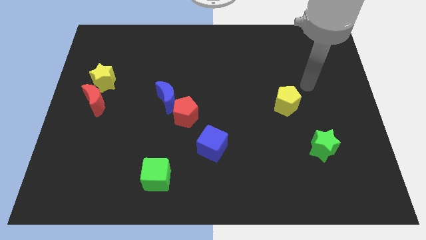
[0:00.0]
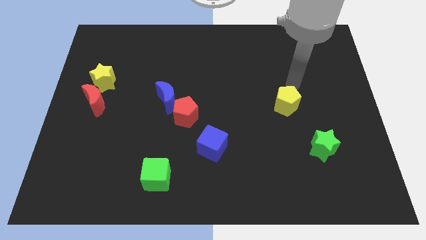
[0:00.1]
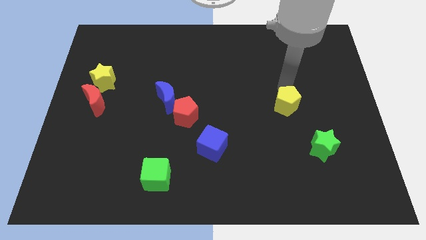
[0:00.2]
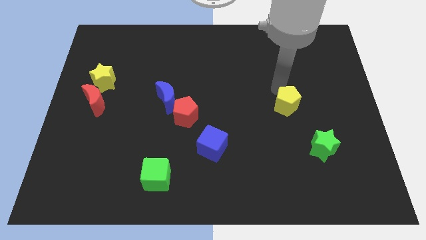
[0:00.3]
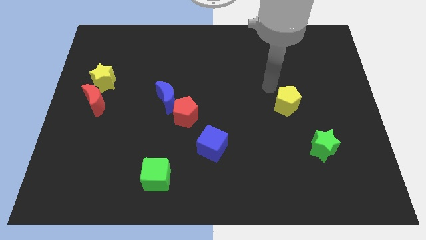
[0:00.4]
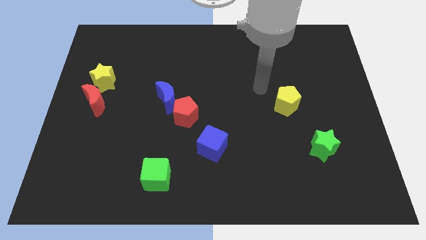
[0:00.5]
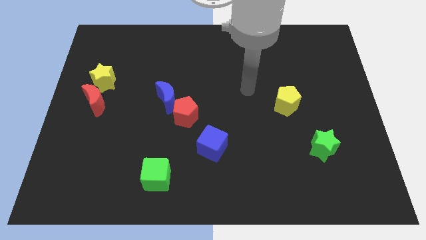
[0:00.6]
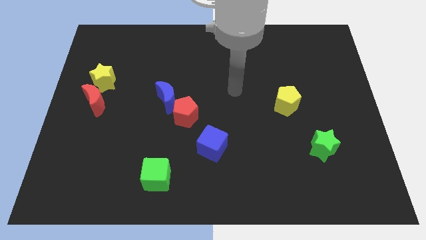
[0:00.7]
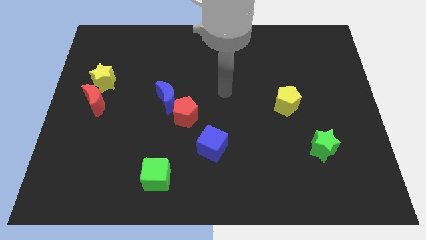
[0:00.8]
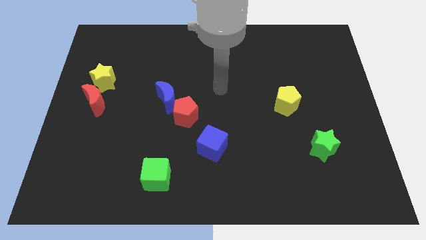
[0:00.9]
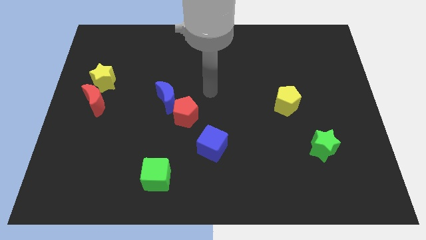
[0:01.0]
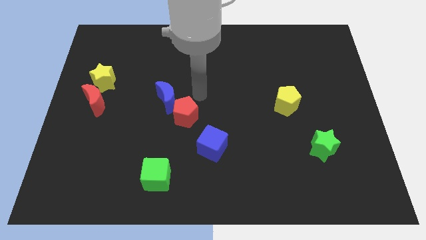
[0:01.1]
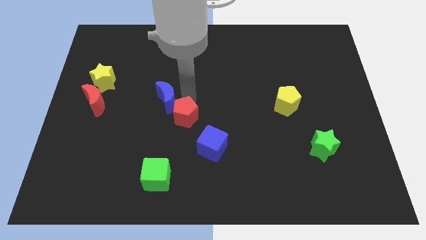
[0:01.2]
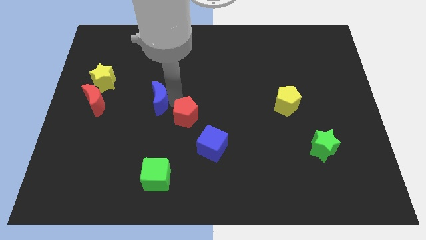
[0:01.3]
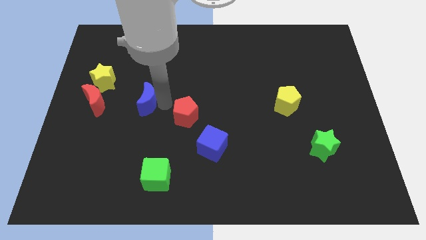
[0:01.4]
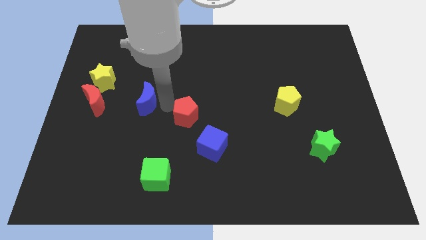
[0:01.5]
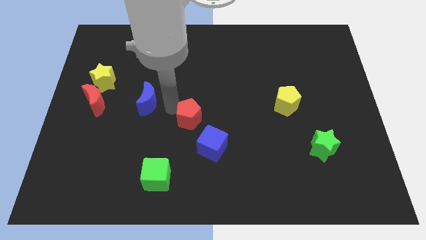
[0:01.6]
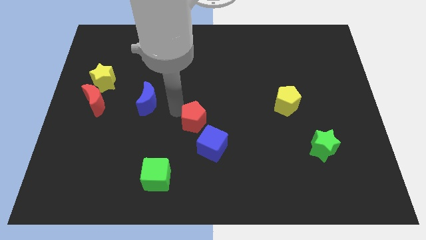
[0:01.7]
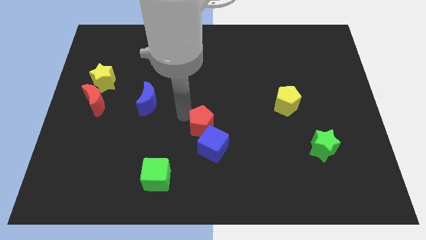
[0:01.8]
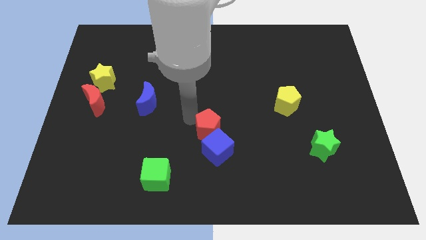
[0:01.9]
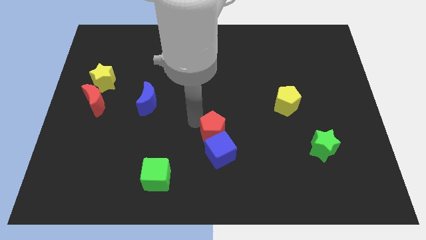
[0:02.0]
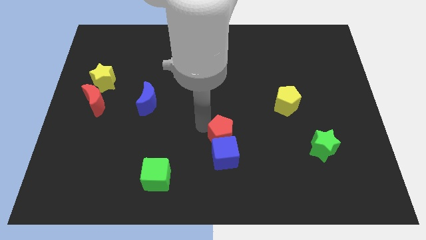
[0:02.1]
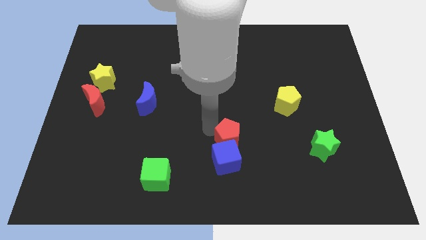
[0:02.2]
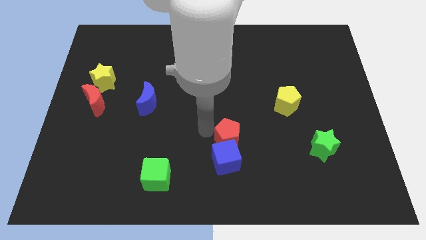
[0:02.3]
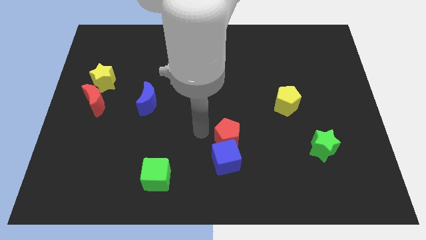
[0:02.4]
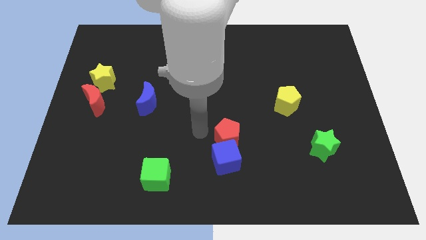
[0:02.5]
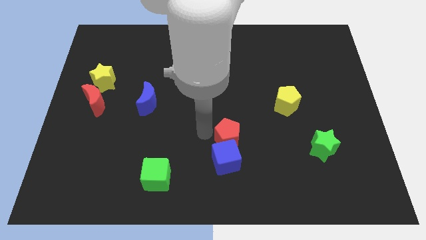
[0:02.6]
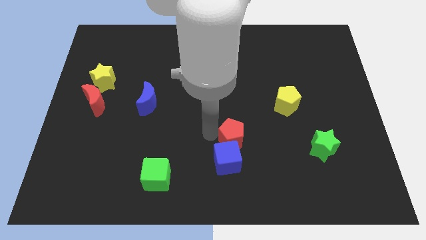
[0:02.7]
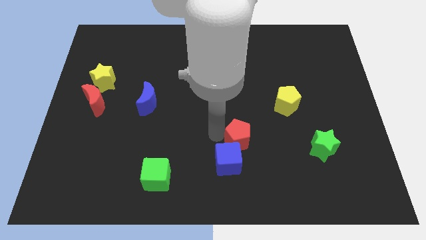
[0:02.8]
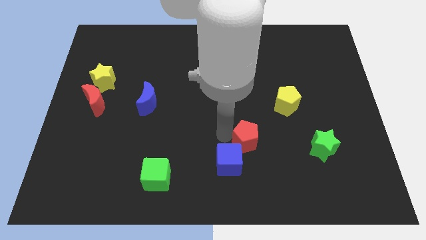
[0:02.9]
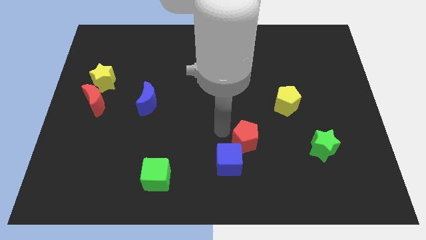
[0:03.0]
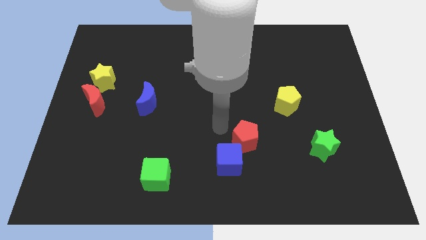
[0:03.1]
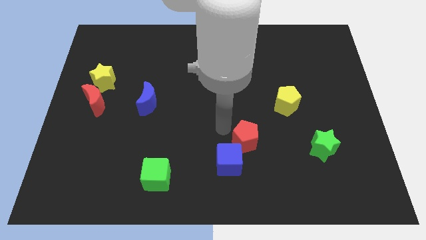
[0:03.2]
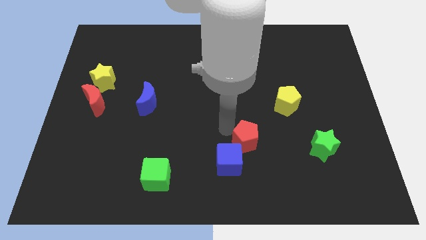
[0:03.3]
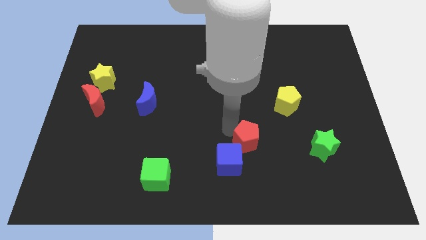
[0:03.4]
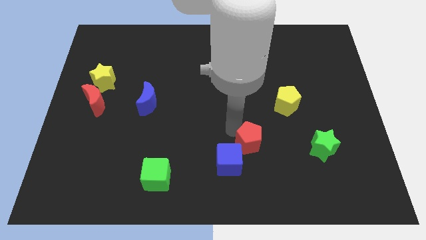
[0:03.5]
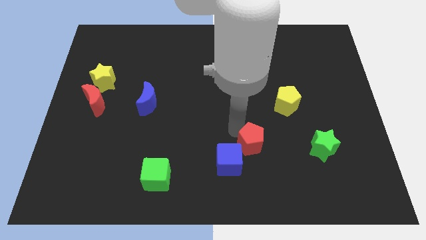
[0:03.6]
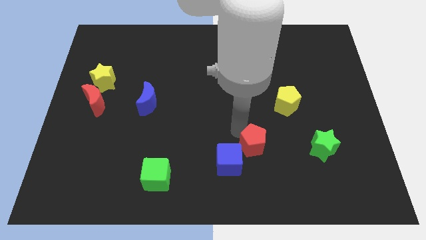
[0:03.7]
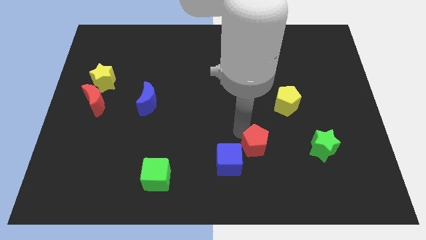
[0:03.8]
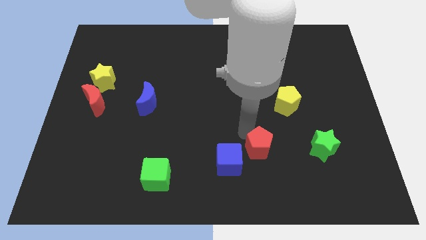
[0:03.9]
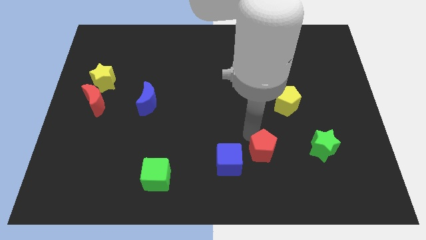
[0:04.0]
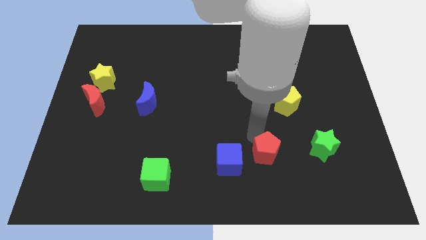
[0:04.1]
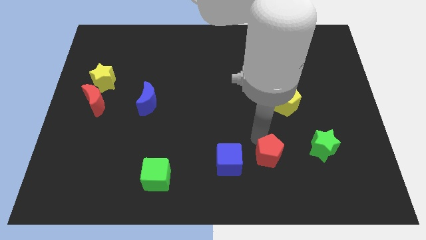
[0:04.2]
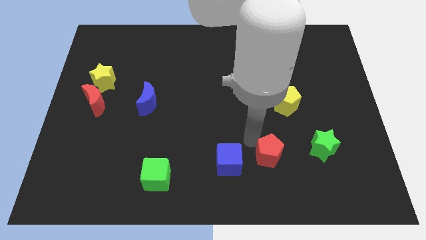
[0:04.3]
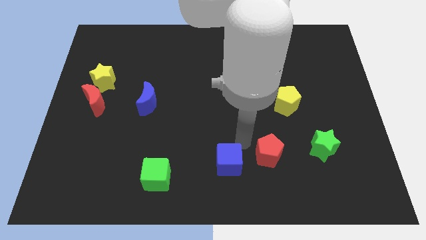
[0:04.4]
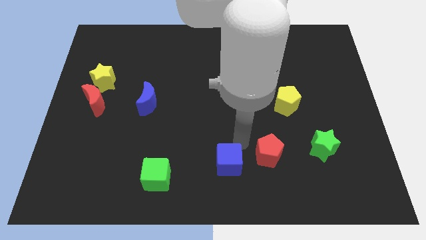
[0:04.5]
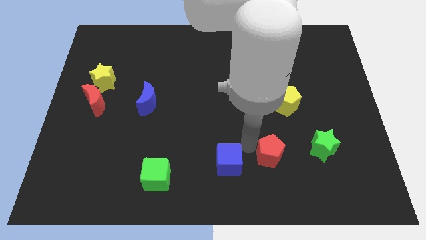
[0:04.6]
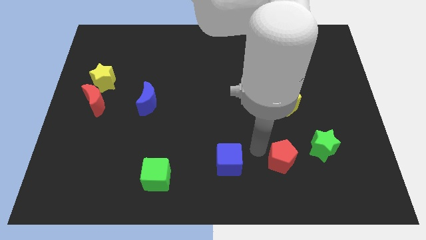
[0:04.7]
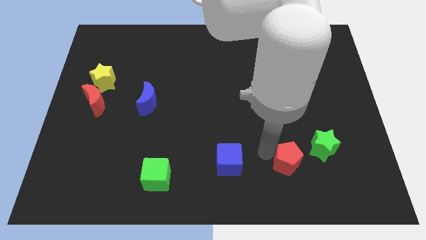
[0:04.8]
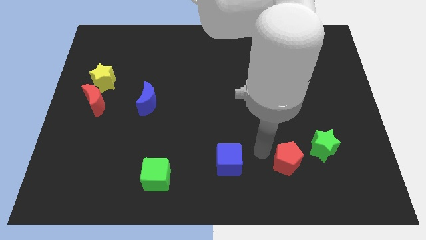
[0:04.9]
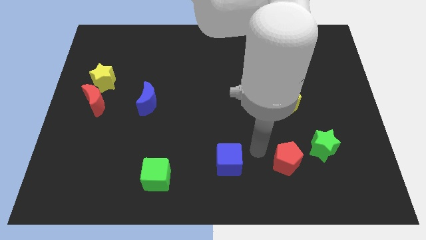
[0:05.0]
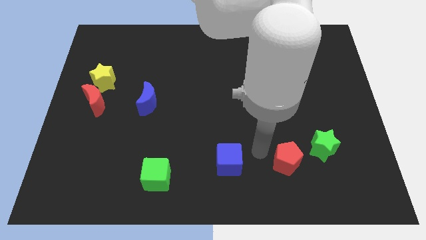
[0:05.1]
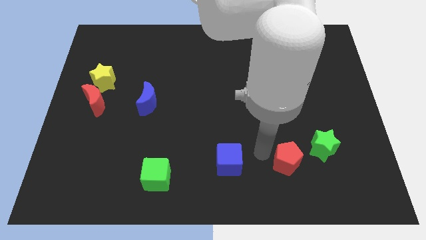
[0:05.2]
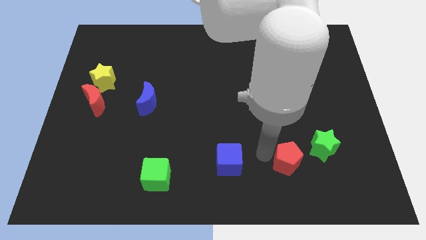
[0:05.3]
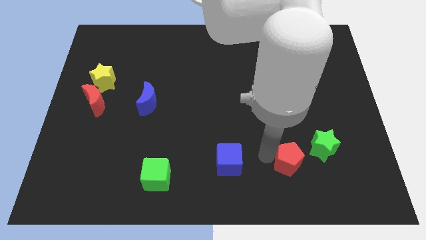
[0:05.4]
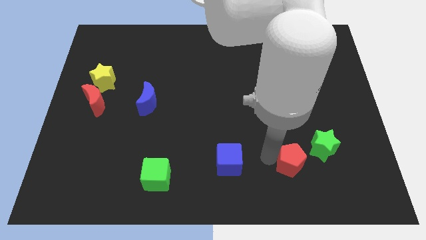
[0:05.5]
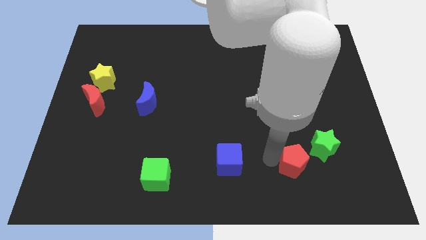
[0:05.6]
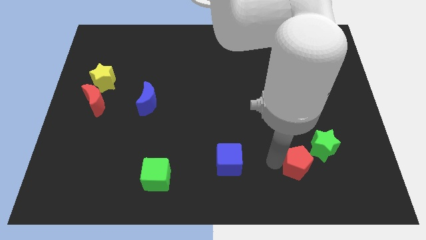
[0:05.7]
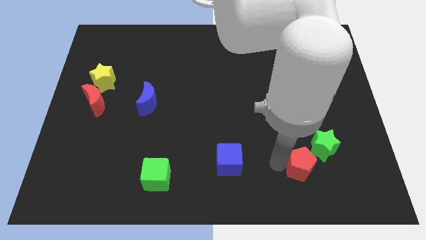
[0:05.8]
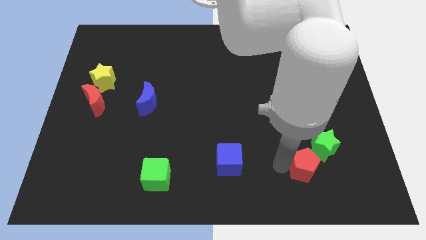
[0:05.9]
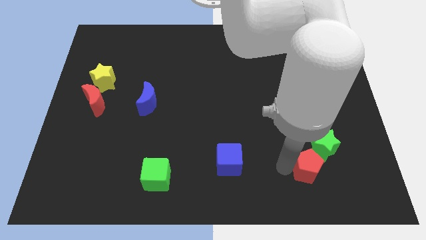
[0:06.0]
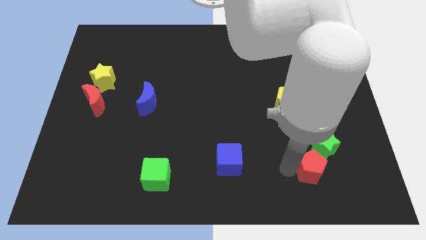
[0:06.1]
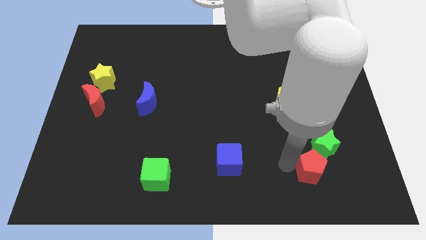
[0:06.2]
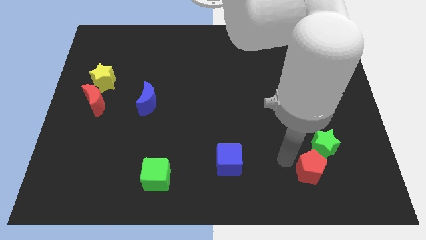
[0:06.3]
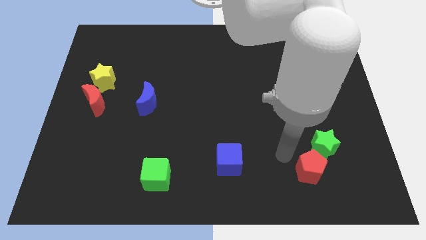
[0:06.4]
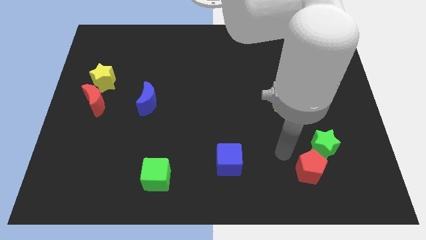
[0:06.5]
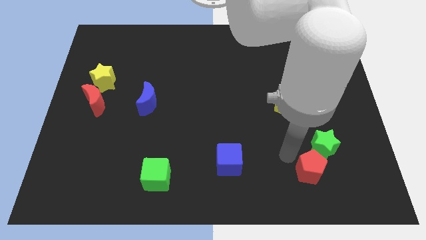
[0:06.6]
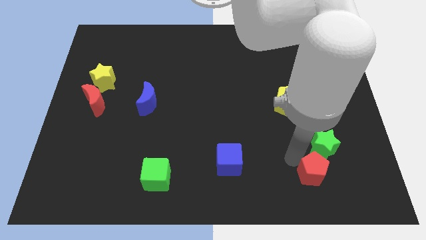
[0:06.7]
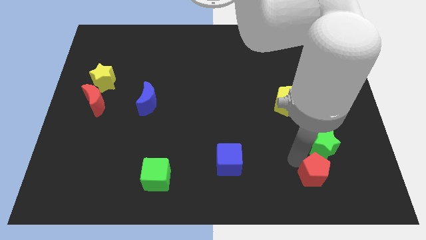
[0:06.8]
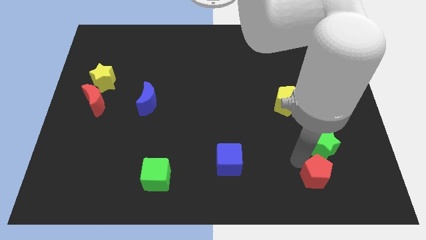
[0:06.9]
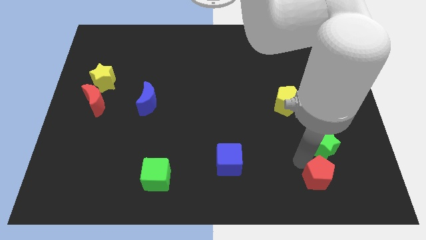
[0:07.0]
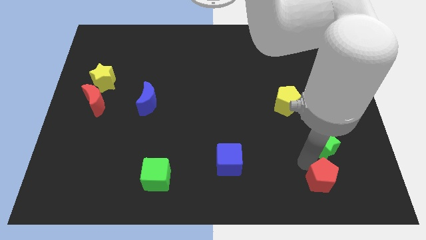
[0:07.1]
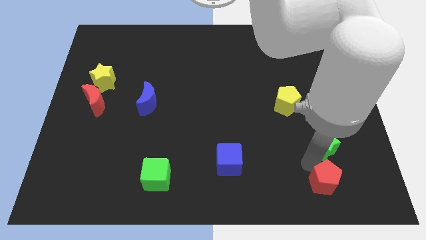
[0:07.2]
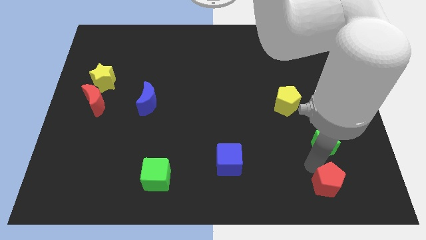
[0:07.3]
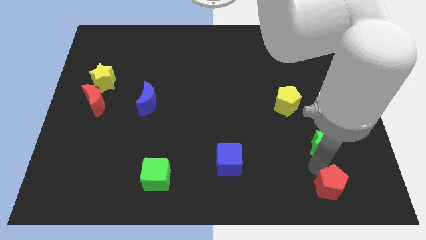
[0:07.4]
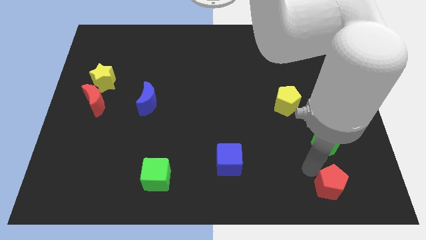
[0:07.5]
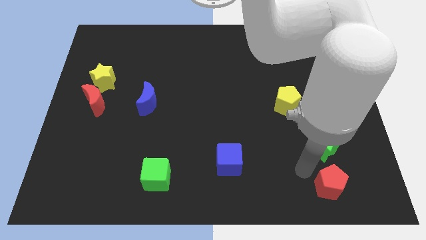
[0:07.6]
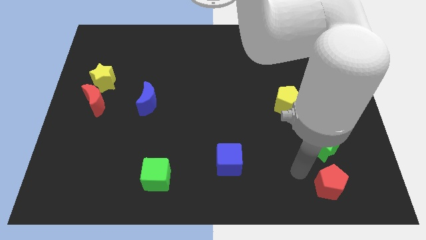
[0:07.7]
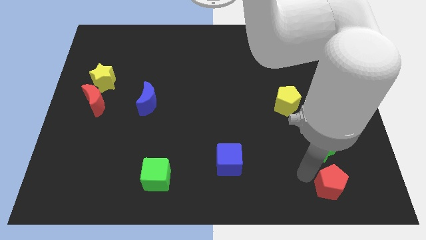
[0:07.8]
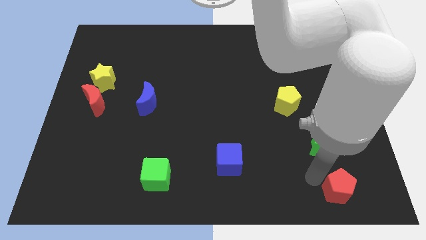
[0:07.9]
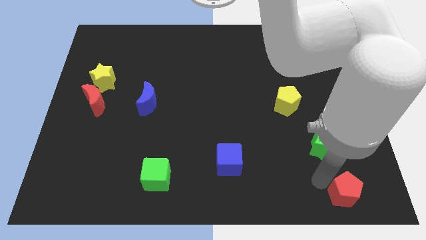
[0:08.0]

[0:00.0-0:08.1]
push the red pentagon to the bottom right
